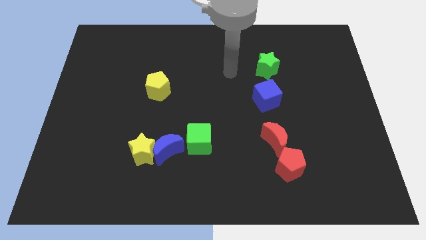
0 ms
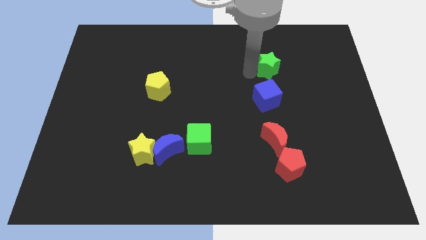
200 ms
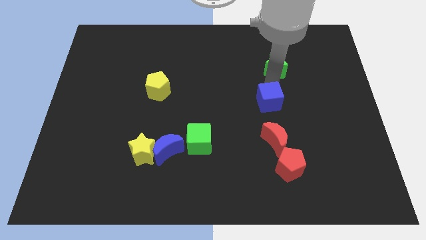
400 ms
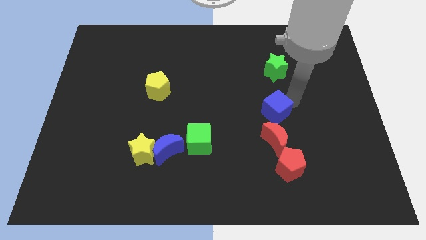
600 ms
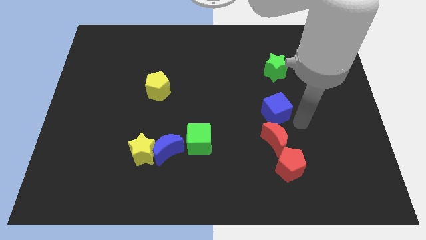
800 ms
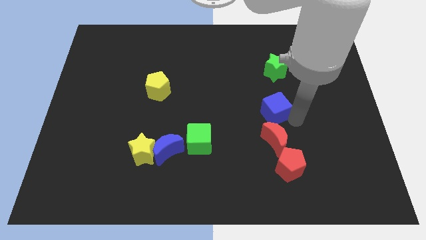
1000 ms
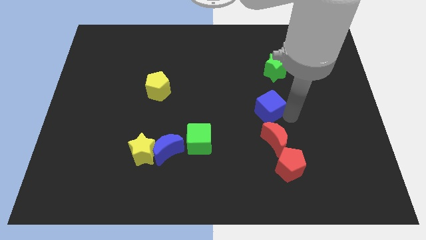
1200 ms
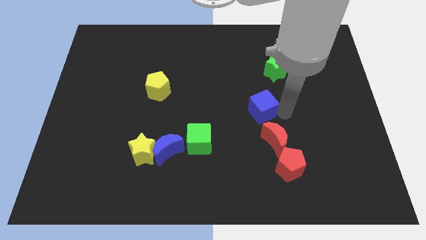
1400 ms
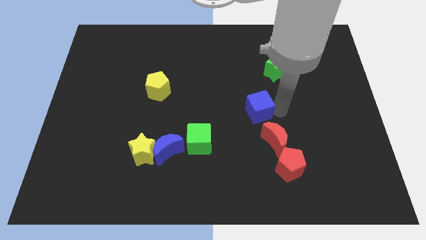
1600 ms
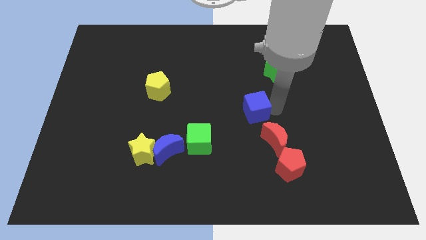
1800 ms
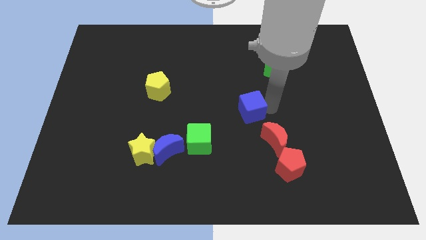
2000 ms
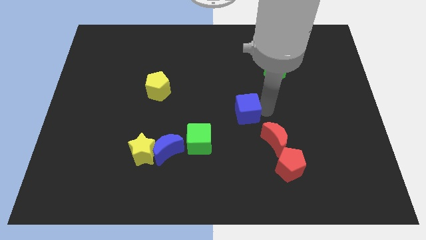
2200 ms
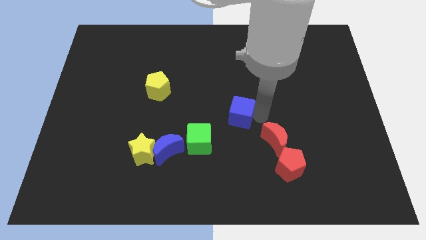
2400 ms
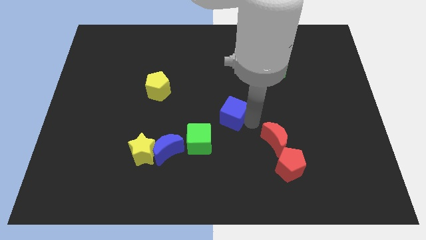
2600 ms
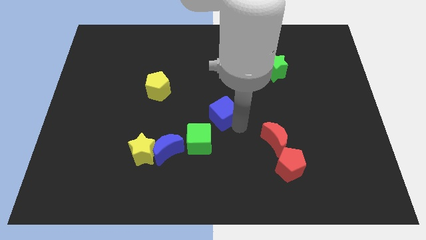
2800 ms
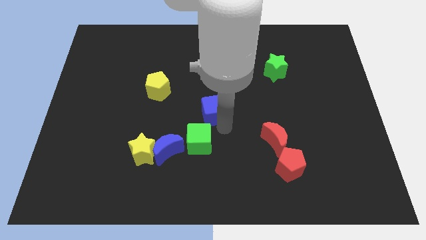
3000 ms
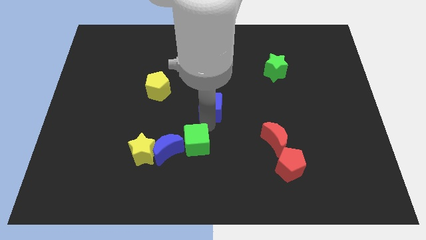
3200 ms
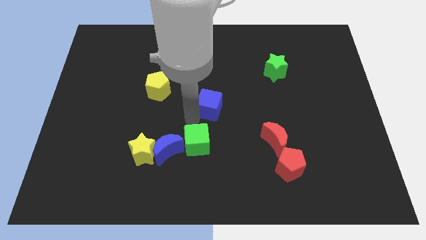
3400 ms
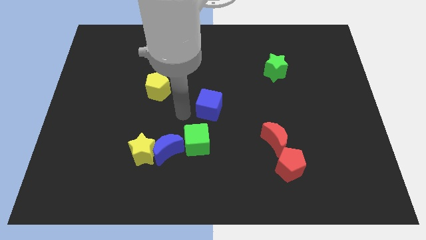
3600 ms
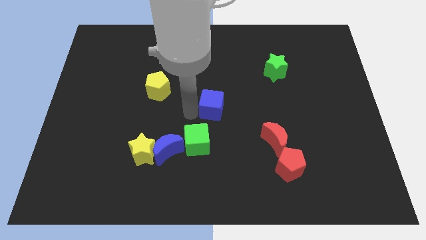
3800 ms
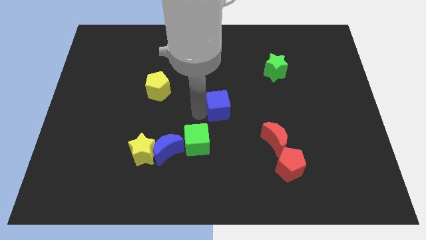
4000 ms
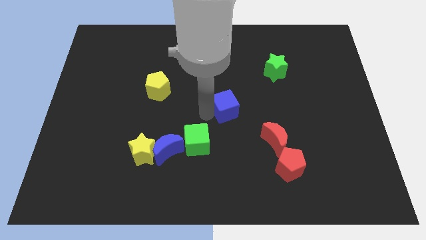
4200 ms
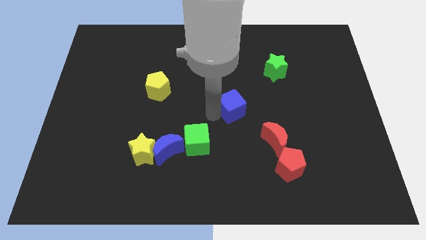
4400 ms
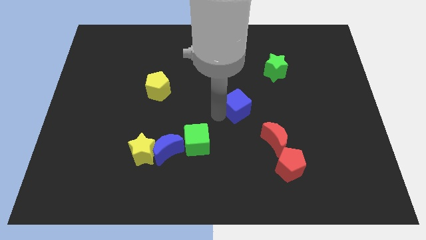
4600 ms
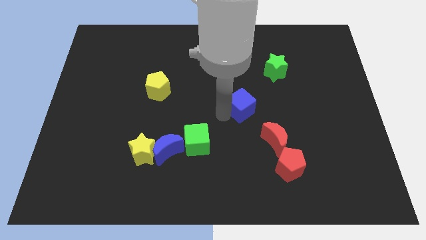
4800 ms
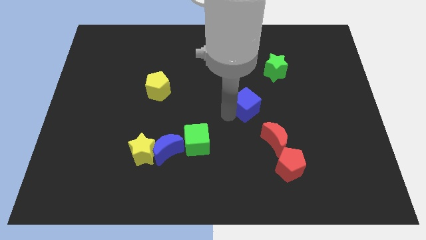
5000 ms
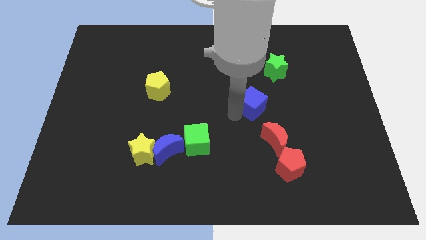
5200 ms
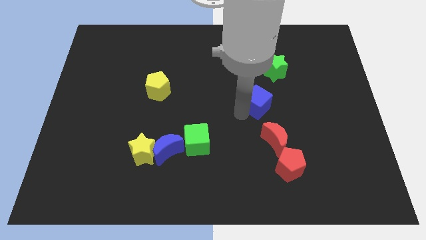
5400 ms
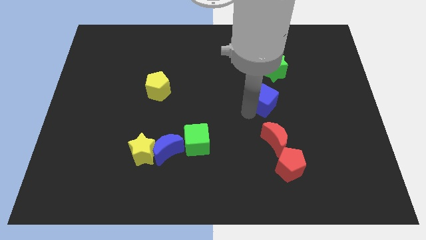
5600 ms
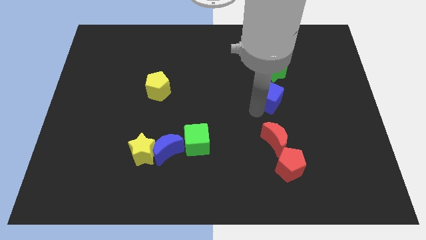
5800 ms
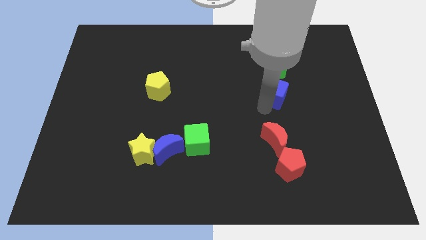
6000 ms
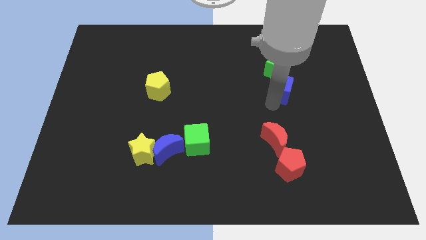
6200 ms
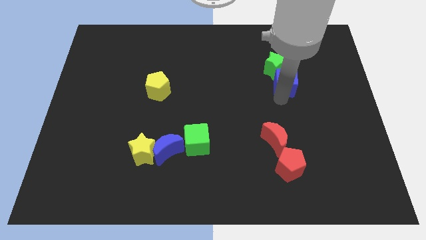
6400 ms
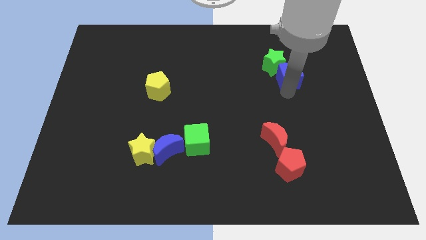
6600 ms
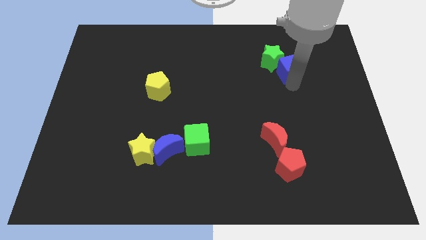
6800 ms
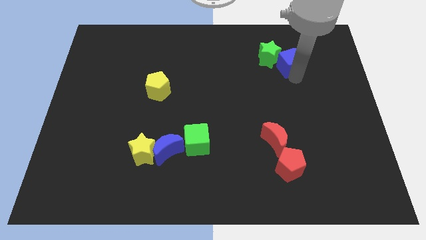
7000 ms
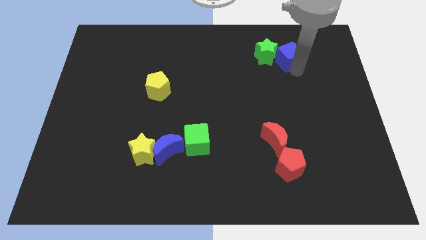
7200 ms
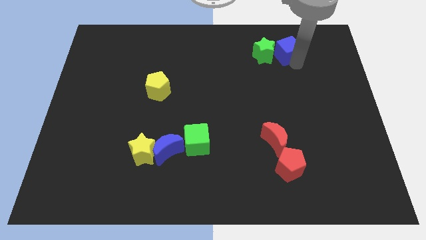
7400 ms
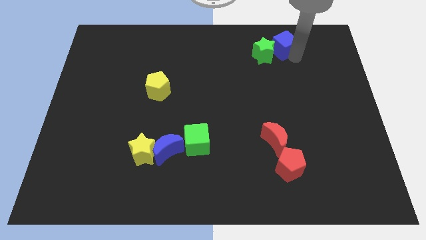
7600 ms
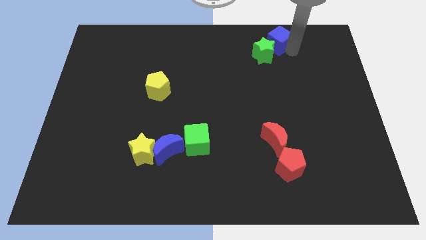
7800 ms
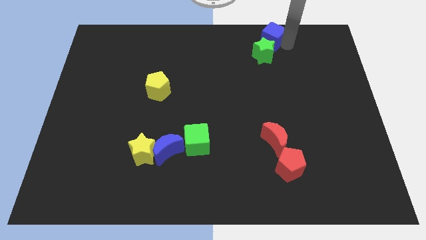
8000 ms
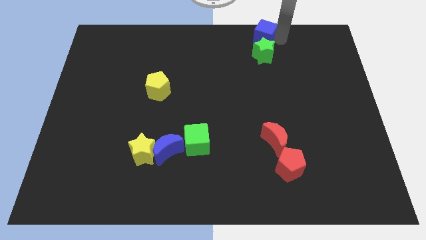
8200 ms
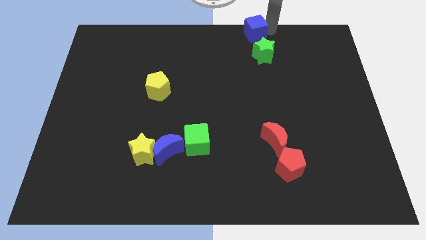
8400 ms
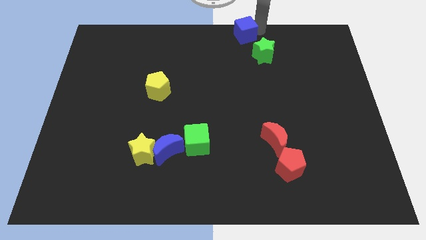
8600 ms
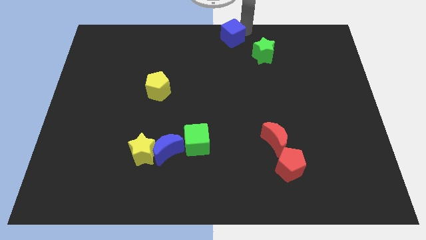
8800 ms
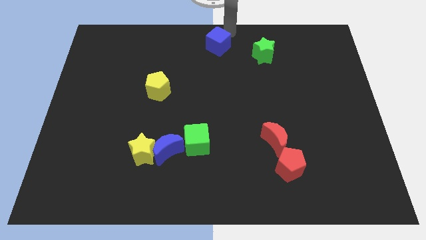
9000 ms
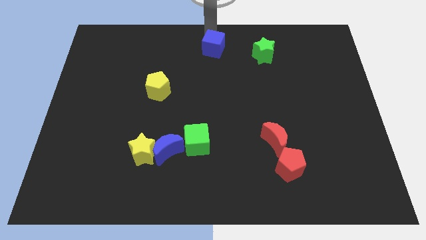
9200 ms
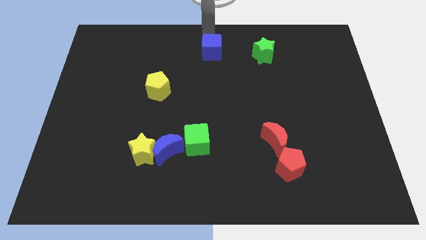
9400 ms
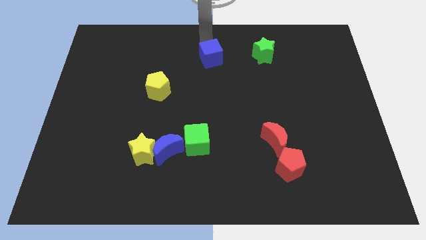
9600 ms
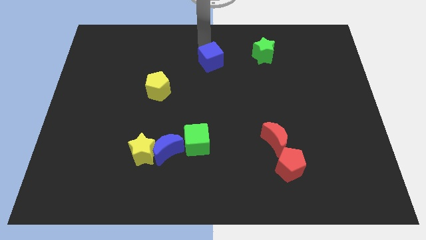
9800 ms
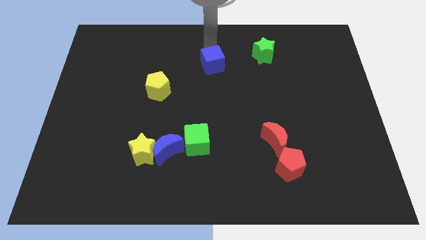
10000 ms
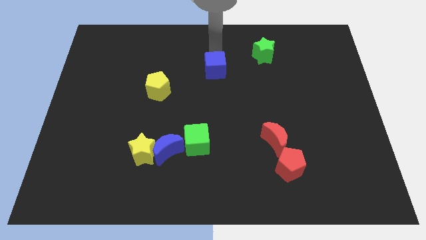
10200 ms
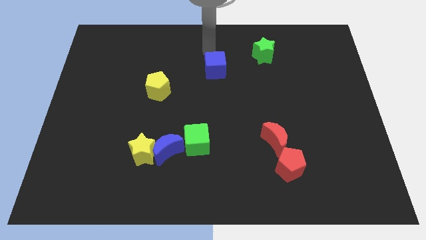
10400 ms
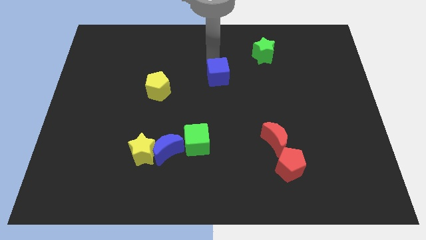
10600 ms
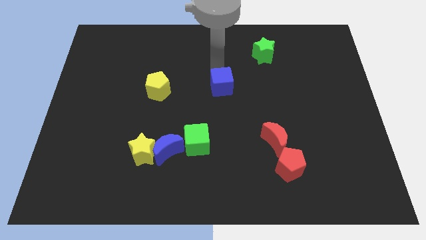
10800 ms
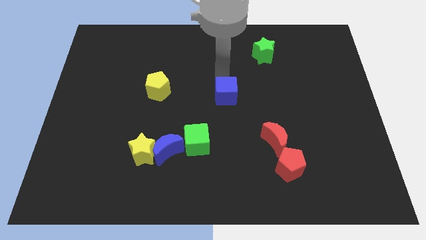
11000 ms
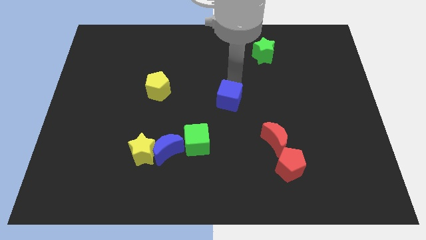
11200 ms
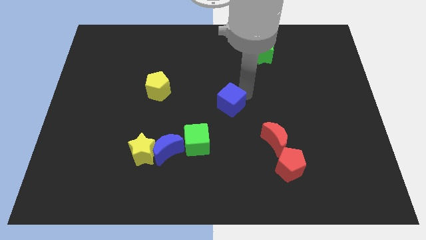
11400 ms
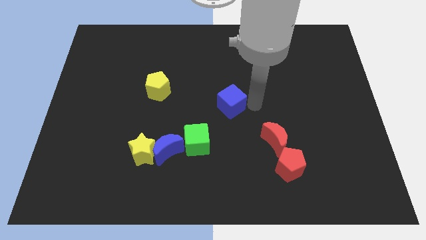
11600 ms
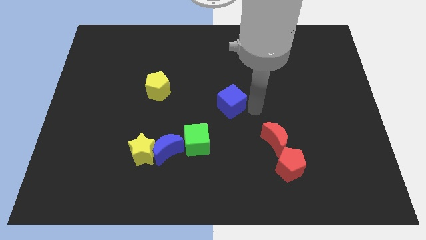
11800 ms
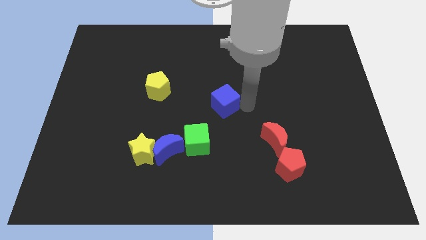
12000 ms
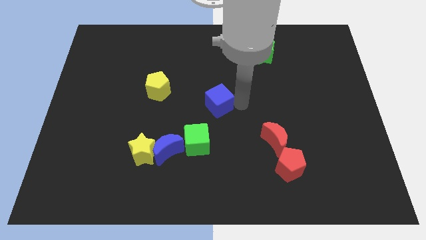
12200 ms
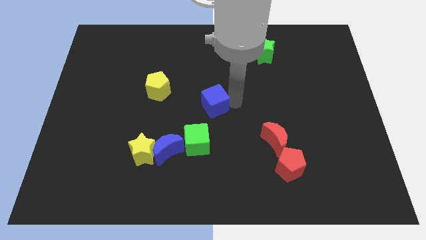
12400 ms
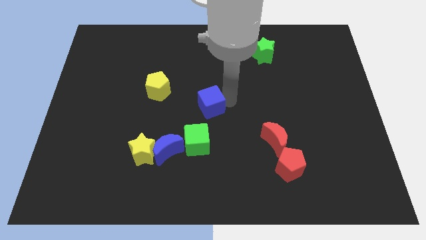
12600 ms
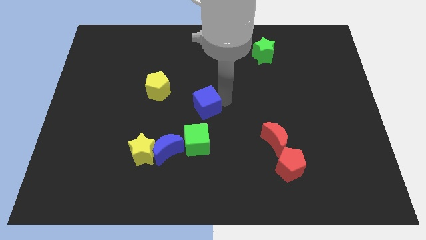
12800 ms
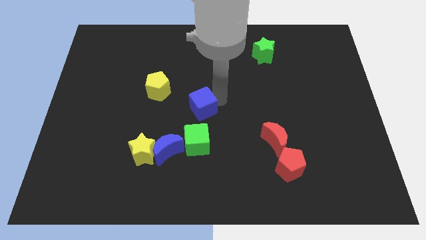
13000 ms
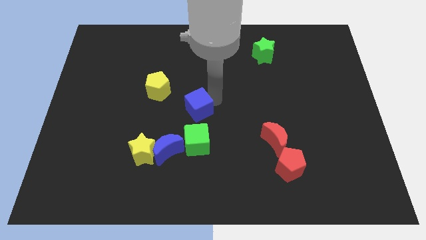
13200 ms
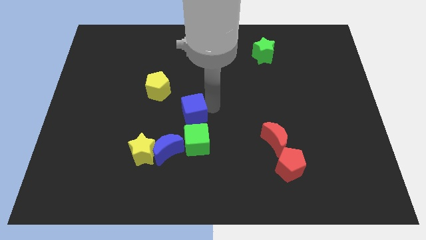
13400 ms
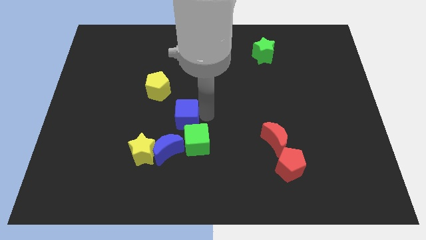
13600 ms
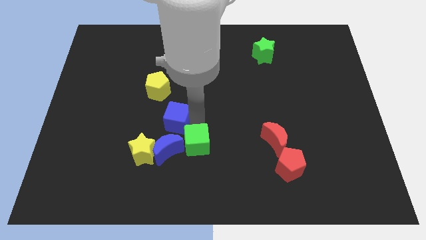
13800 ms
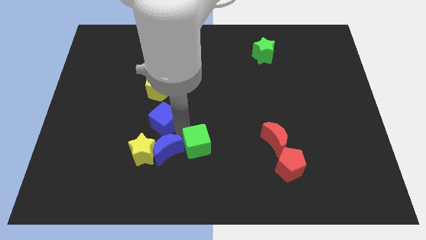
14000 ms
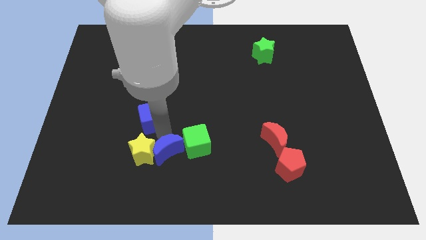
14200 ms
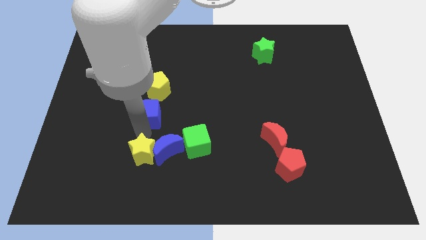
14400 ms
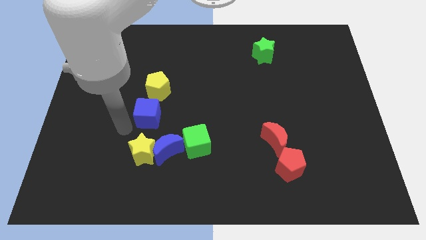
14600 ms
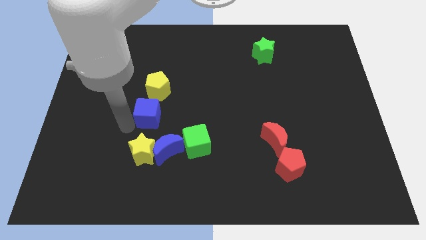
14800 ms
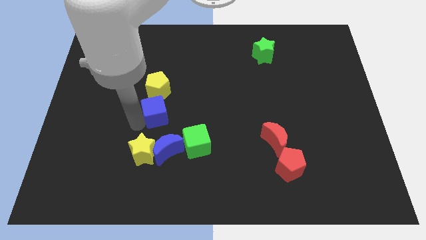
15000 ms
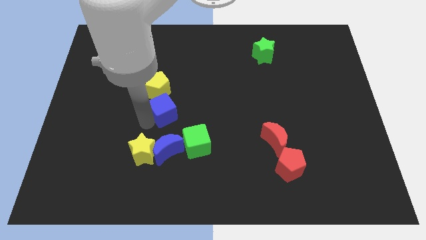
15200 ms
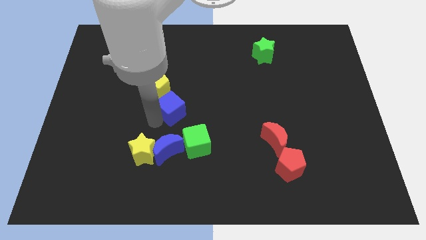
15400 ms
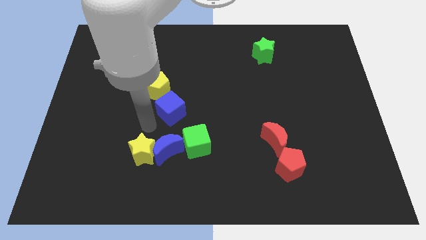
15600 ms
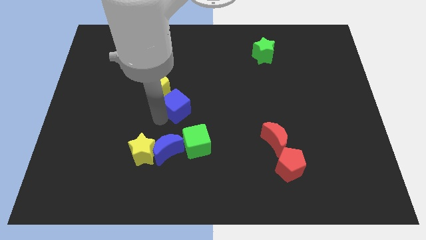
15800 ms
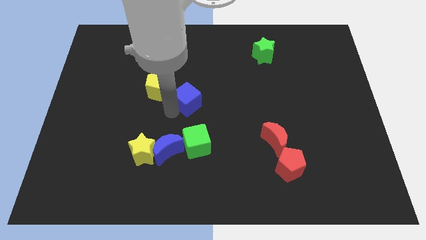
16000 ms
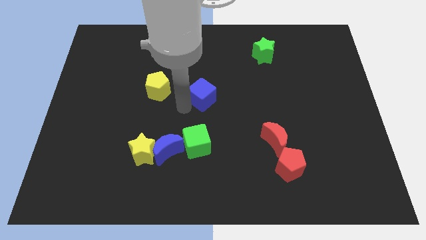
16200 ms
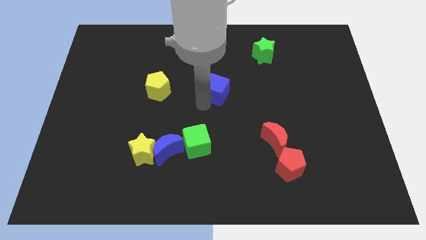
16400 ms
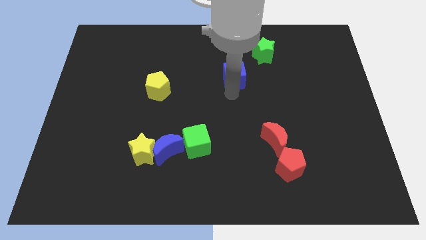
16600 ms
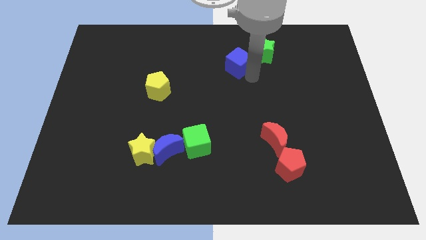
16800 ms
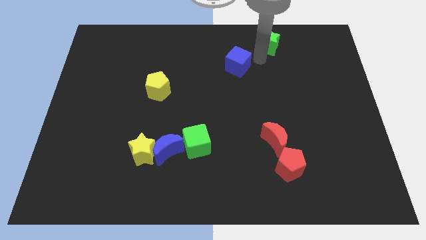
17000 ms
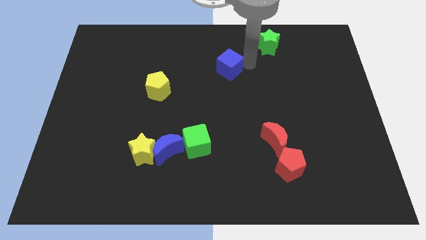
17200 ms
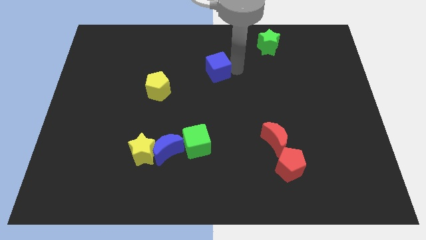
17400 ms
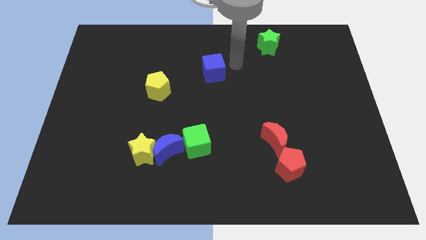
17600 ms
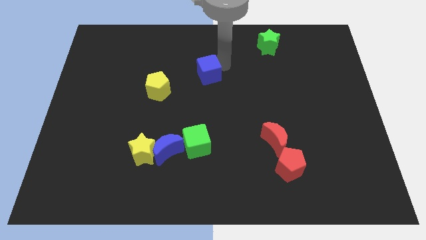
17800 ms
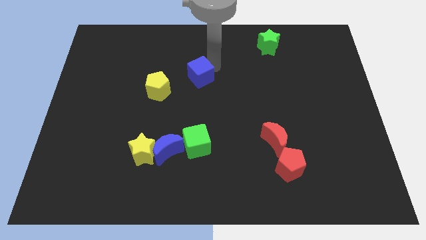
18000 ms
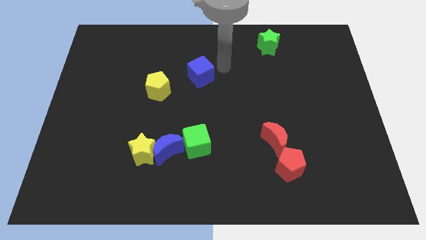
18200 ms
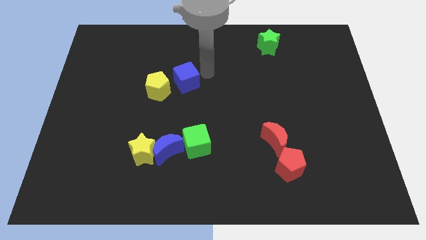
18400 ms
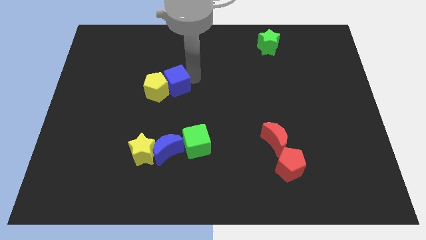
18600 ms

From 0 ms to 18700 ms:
push the blue cube to the yellow pentagon
